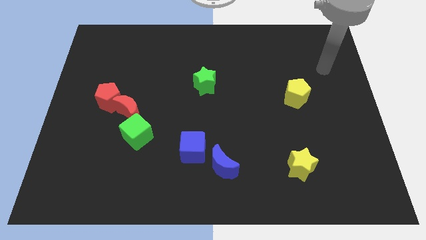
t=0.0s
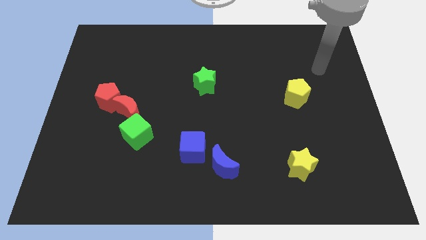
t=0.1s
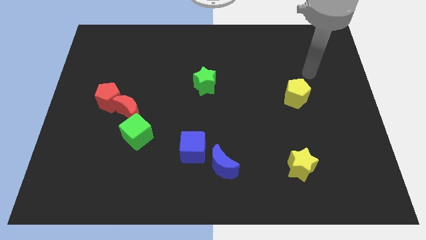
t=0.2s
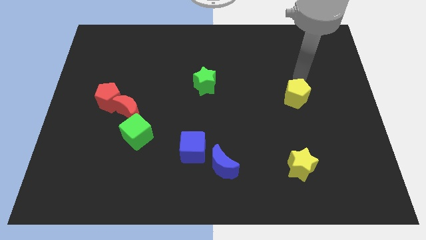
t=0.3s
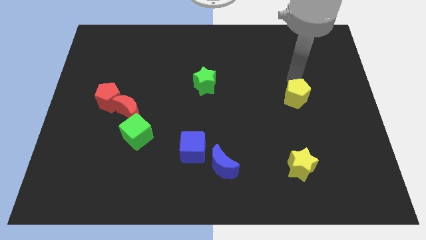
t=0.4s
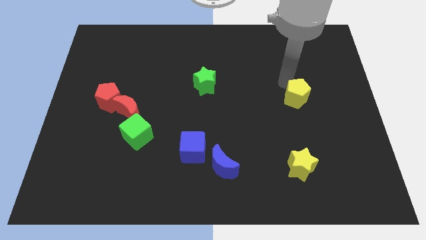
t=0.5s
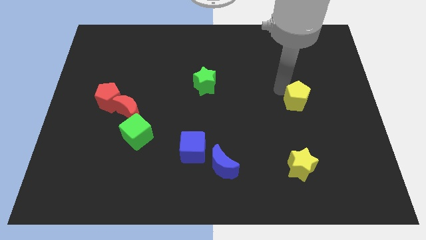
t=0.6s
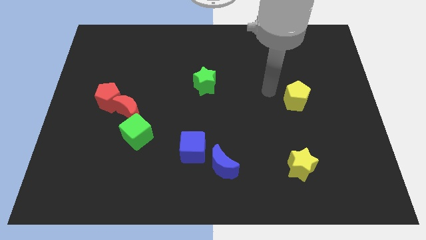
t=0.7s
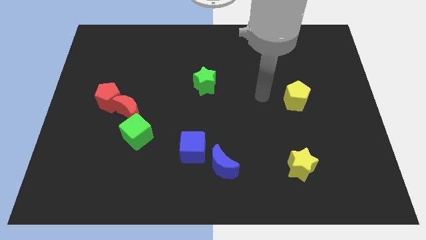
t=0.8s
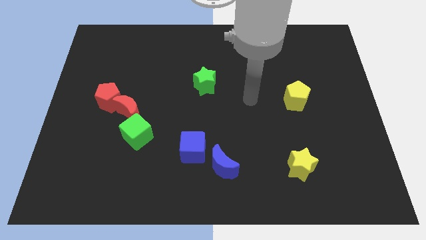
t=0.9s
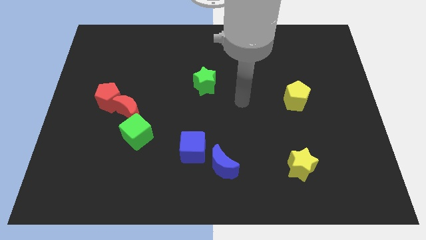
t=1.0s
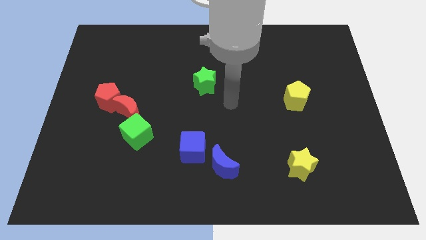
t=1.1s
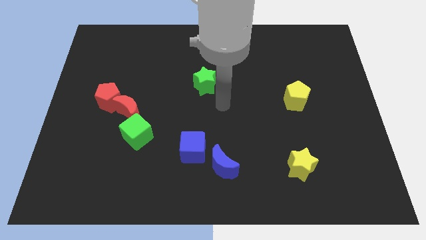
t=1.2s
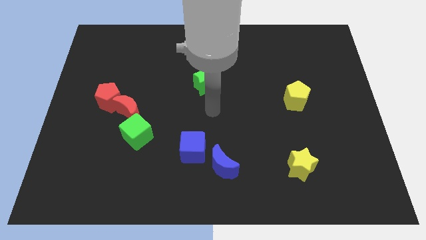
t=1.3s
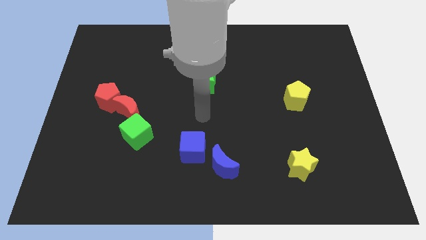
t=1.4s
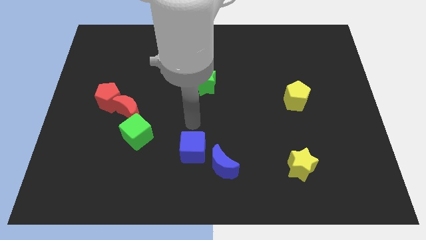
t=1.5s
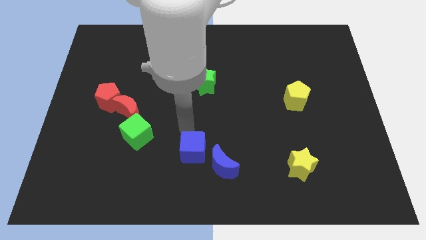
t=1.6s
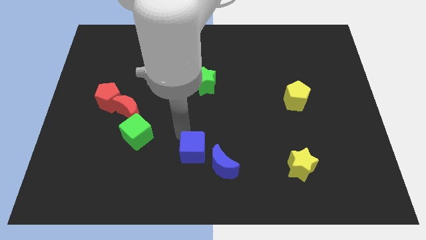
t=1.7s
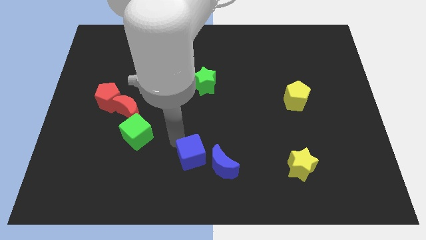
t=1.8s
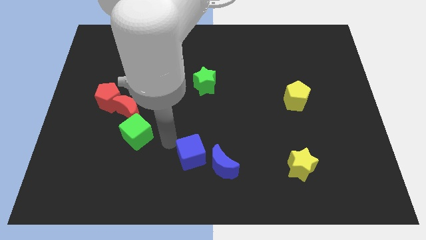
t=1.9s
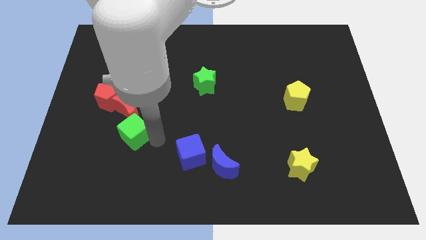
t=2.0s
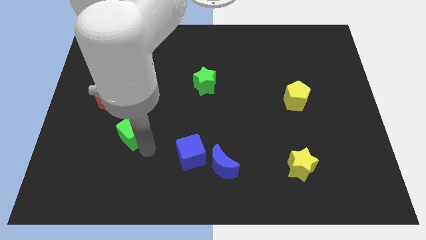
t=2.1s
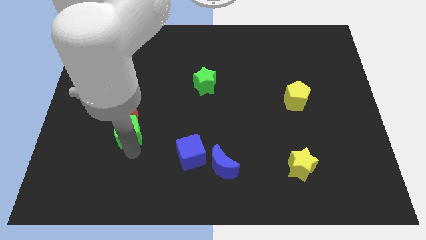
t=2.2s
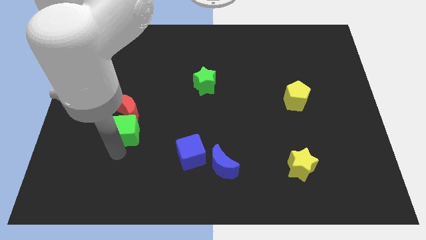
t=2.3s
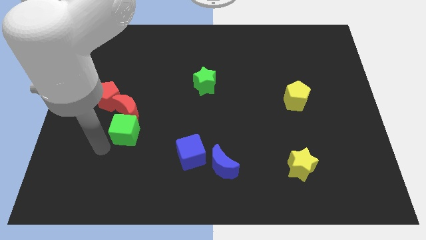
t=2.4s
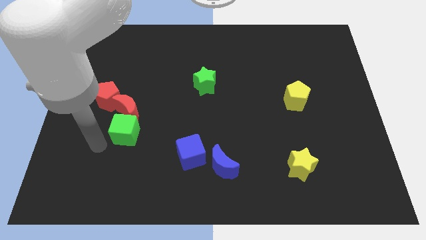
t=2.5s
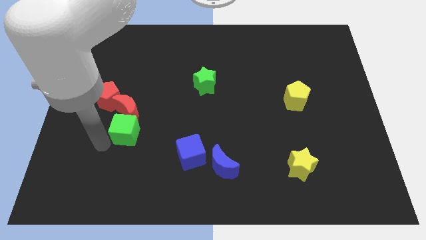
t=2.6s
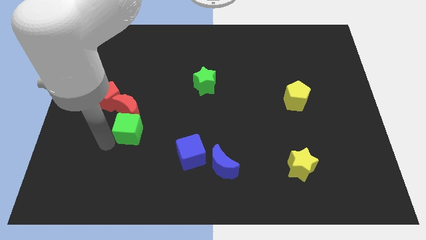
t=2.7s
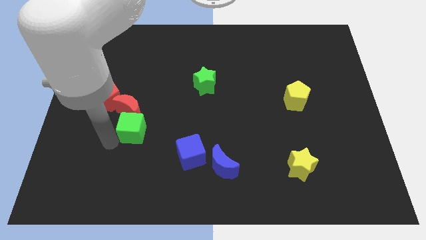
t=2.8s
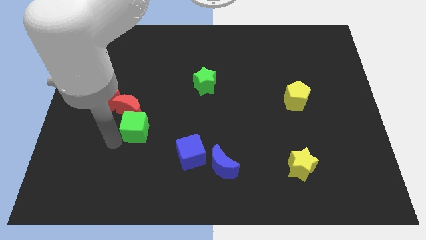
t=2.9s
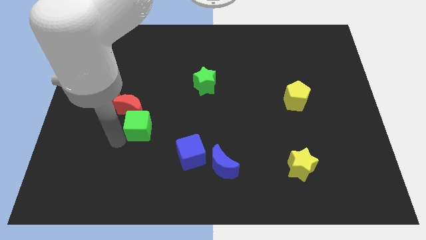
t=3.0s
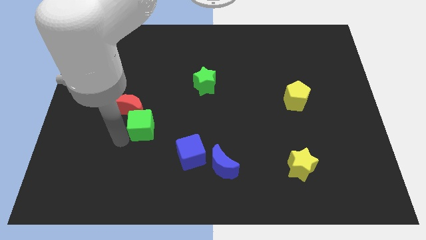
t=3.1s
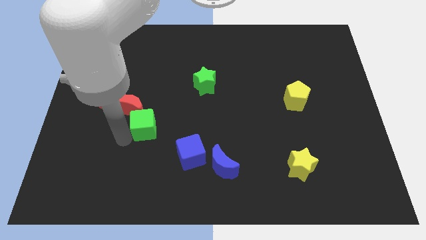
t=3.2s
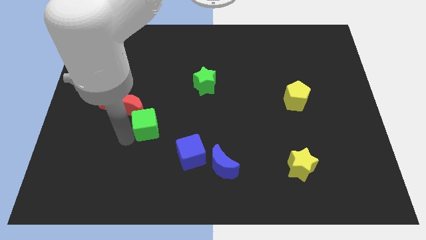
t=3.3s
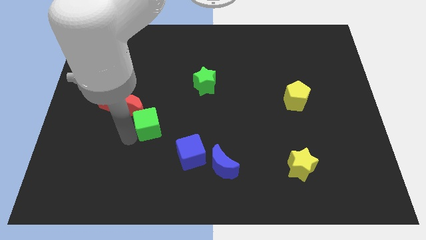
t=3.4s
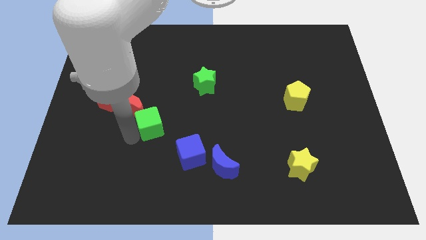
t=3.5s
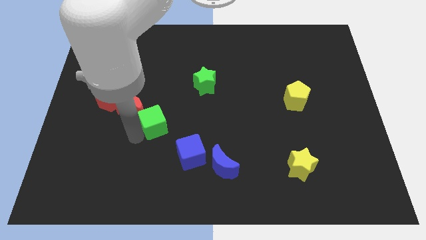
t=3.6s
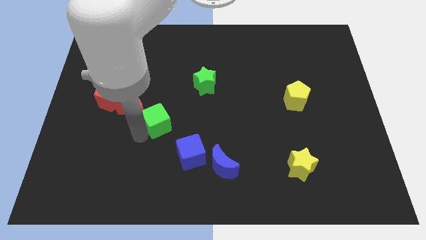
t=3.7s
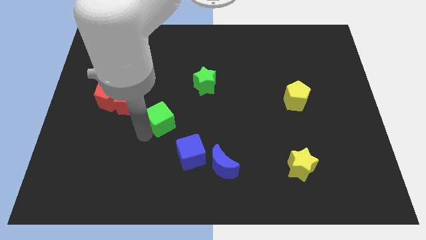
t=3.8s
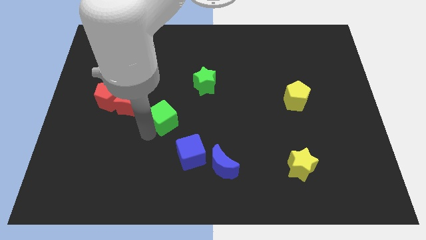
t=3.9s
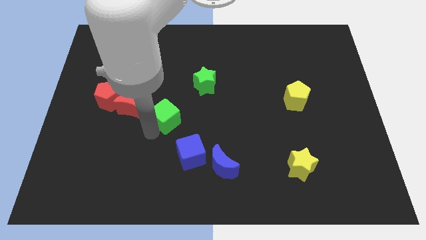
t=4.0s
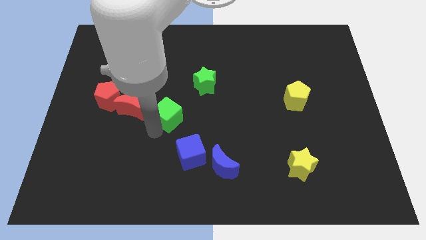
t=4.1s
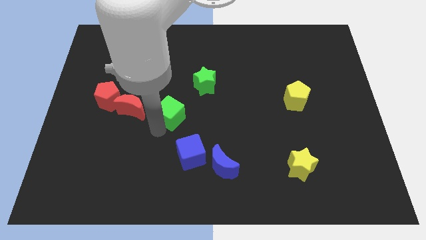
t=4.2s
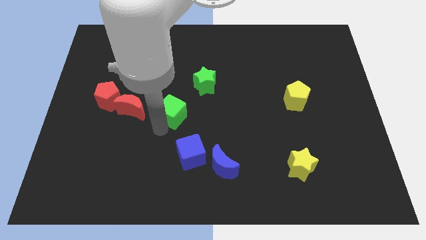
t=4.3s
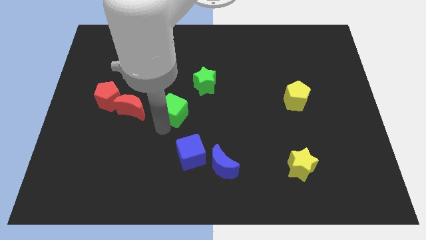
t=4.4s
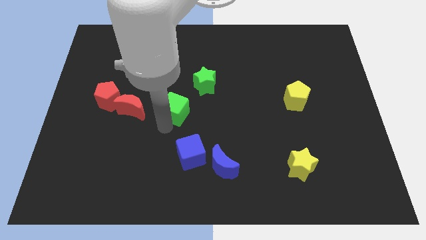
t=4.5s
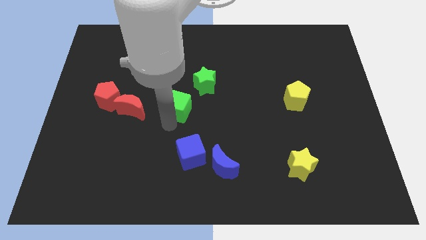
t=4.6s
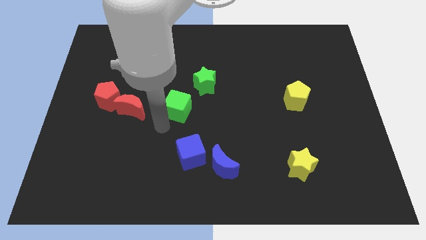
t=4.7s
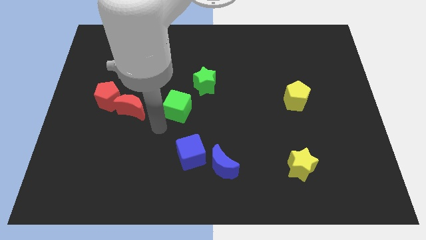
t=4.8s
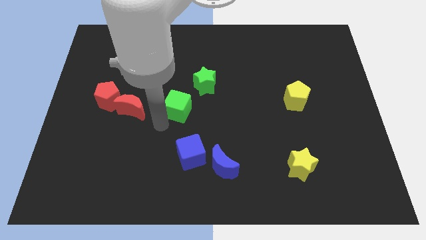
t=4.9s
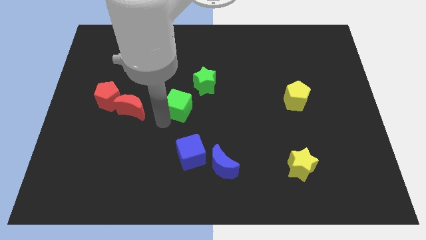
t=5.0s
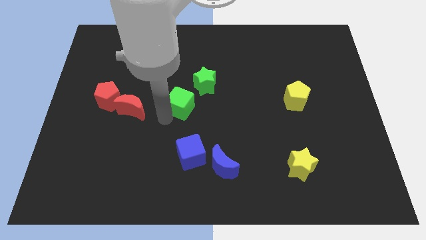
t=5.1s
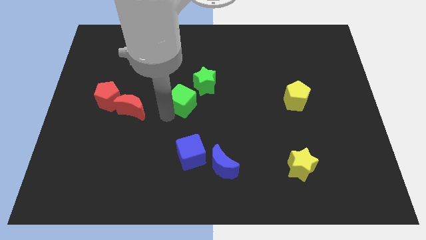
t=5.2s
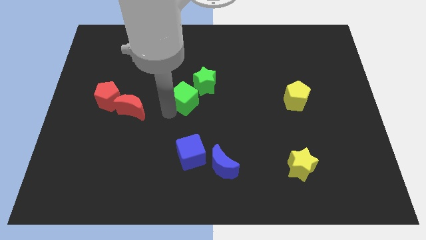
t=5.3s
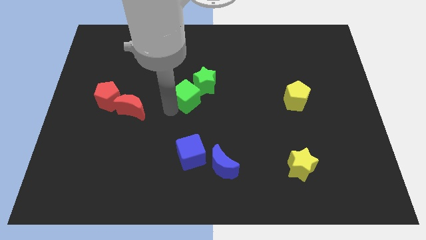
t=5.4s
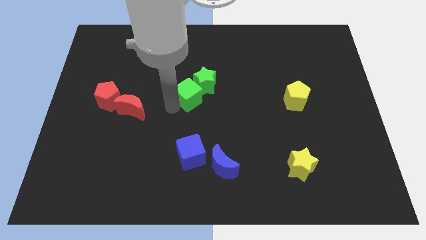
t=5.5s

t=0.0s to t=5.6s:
move the green cube towards the green star
